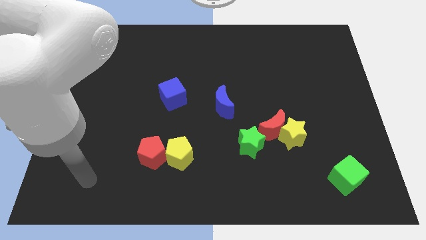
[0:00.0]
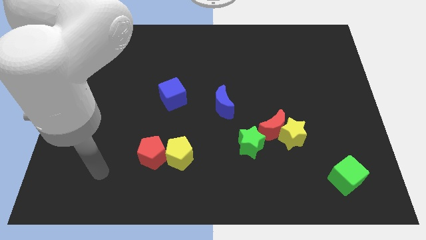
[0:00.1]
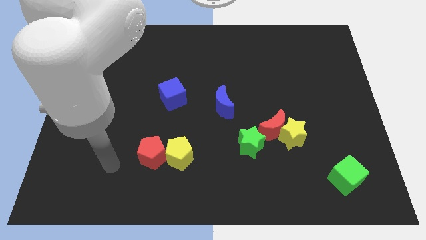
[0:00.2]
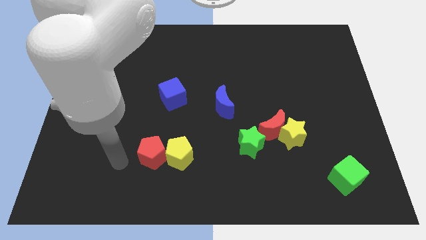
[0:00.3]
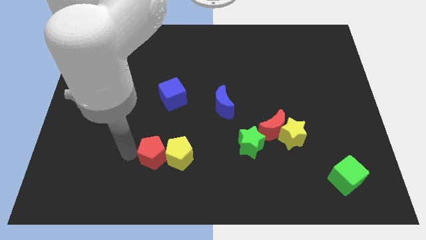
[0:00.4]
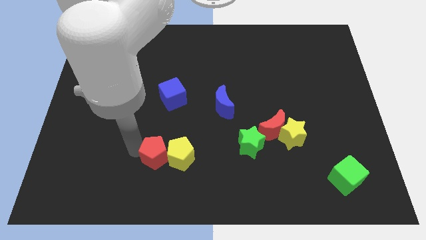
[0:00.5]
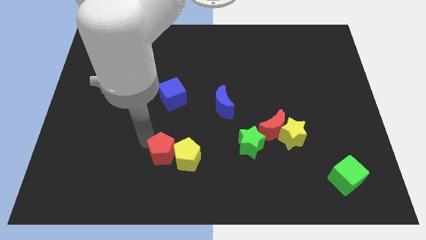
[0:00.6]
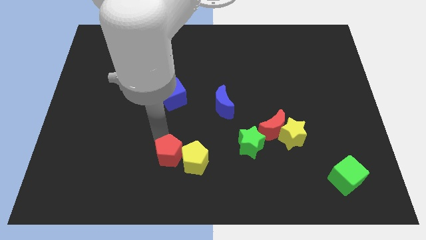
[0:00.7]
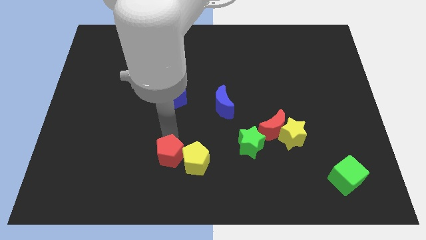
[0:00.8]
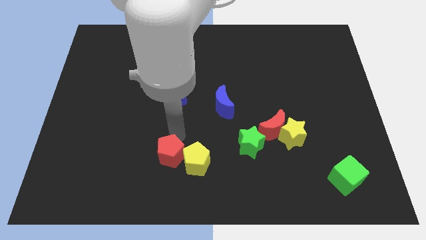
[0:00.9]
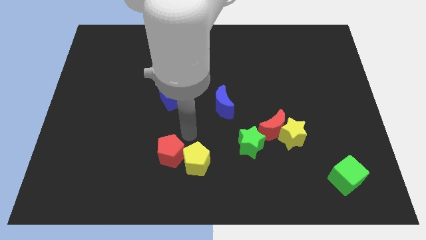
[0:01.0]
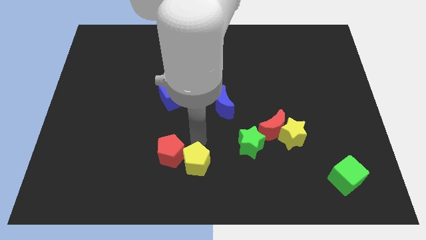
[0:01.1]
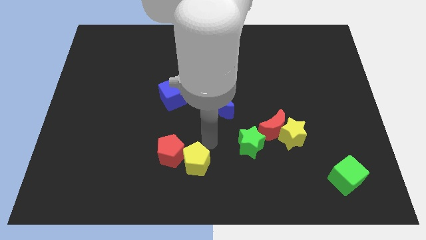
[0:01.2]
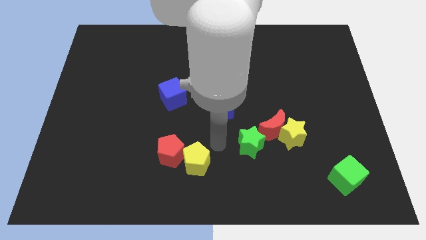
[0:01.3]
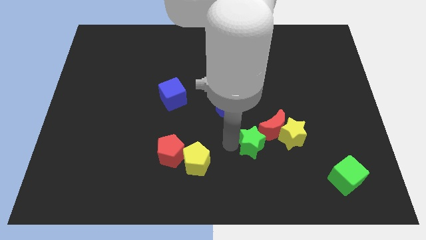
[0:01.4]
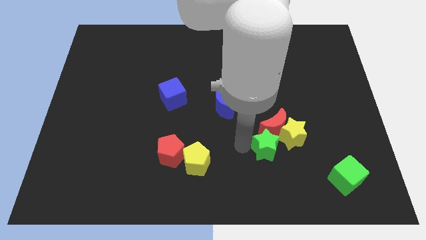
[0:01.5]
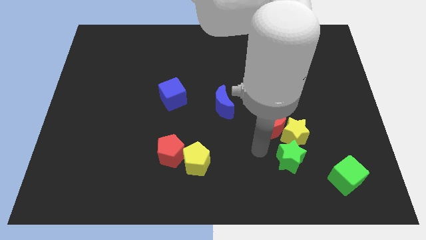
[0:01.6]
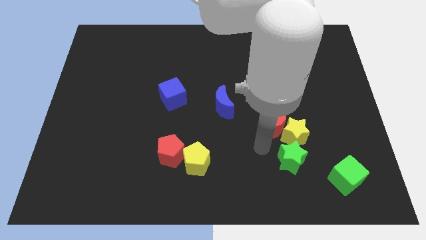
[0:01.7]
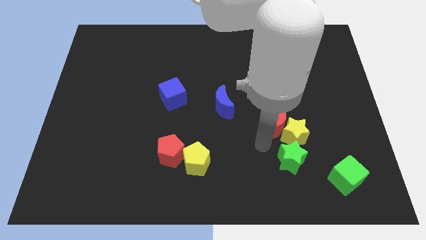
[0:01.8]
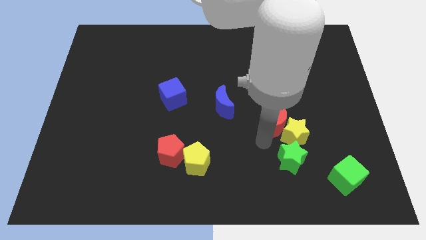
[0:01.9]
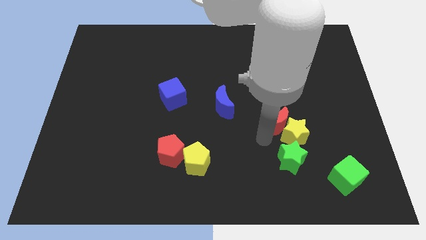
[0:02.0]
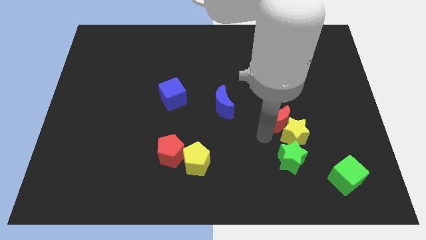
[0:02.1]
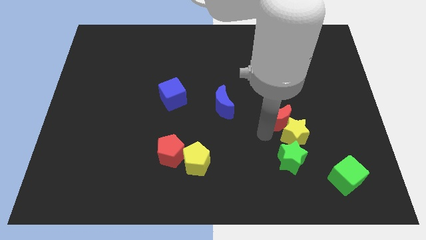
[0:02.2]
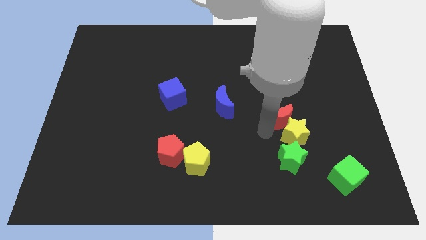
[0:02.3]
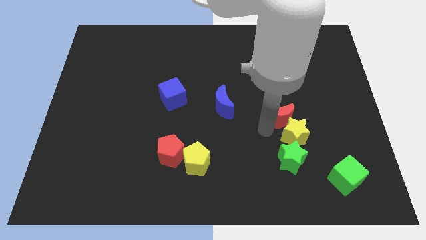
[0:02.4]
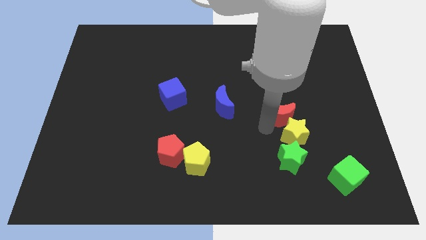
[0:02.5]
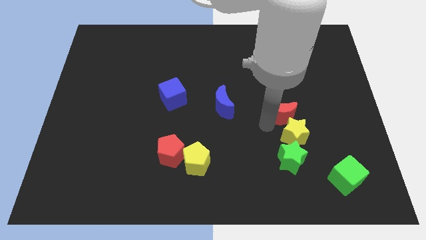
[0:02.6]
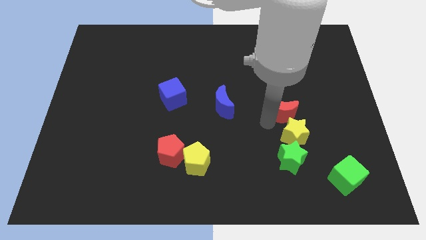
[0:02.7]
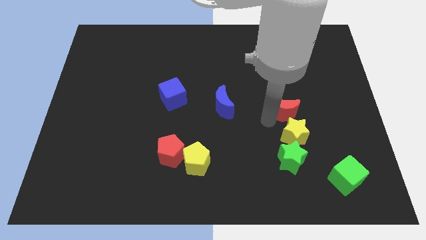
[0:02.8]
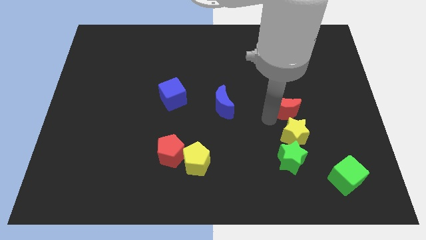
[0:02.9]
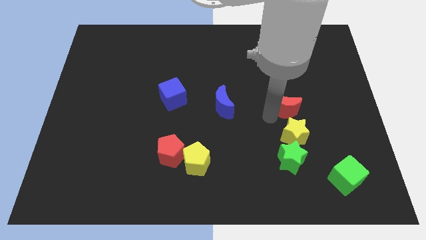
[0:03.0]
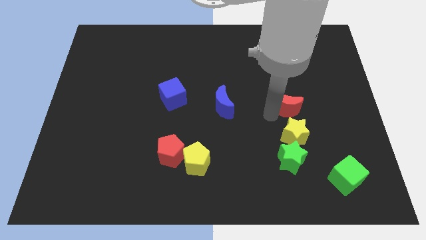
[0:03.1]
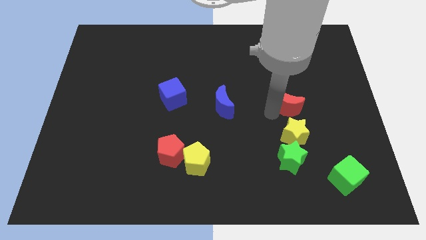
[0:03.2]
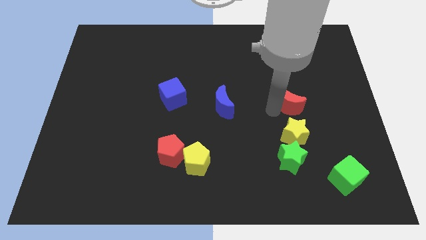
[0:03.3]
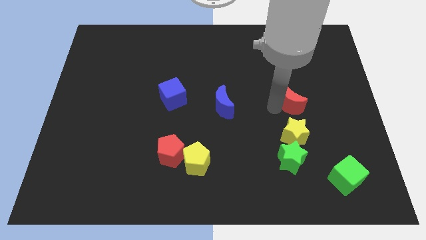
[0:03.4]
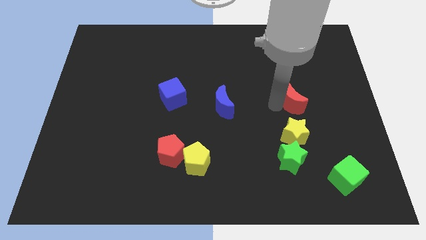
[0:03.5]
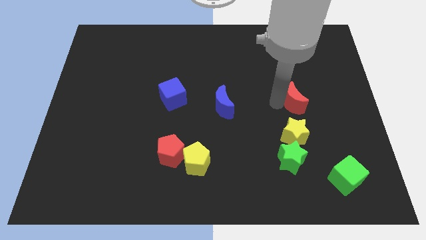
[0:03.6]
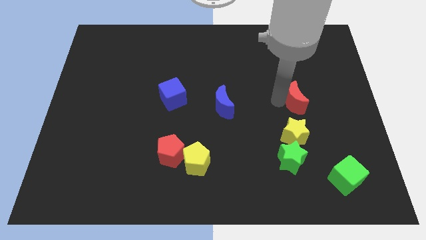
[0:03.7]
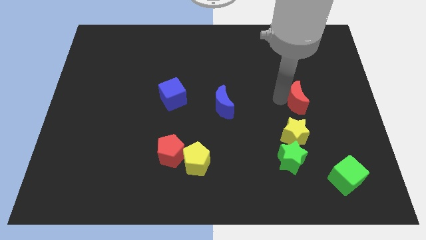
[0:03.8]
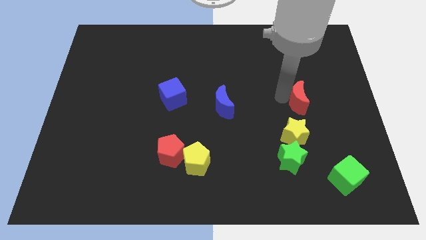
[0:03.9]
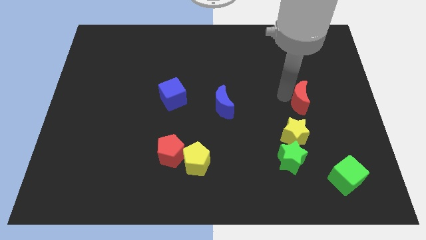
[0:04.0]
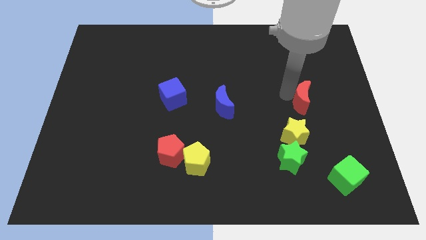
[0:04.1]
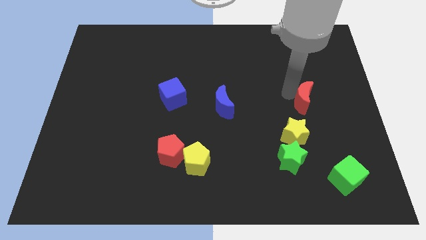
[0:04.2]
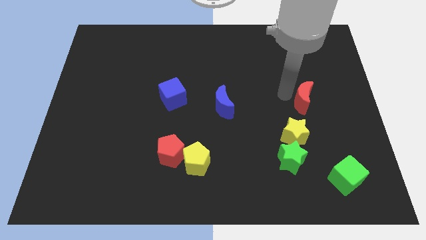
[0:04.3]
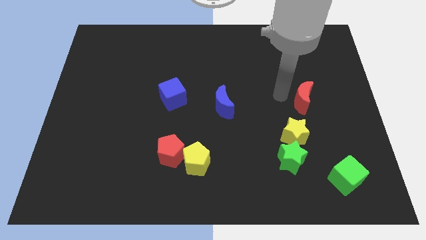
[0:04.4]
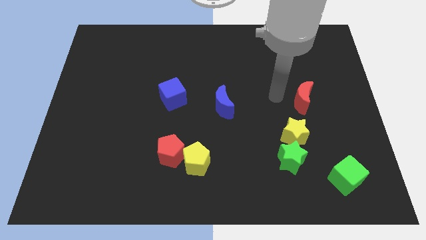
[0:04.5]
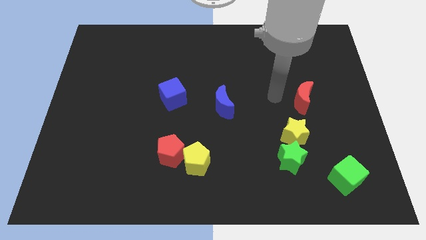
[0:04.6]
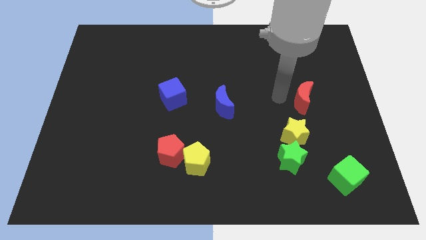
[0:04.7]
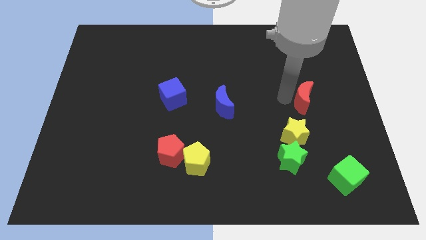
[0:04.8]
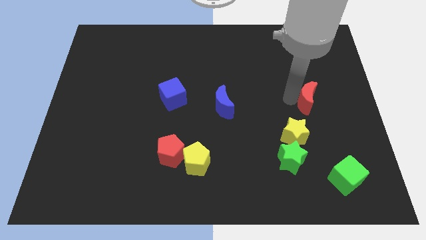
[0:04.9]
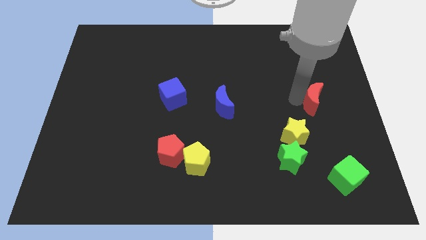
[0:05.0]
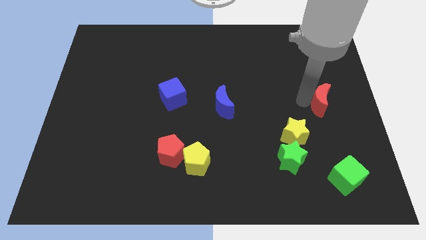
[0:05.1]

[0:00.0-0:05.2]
push the red moon to the right side of the board

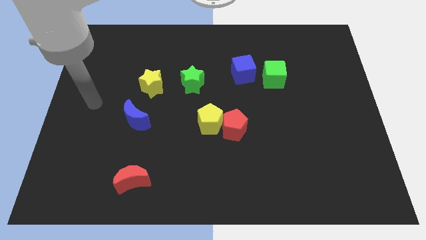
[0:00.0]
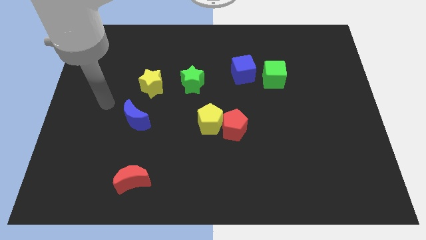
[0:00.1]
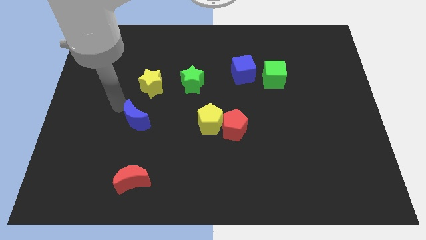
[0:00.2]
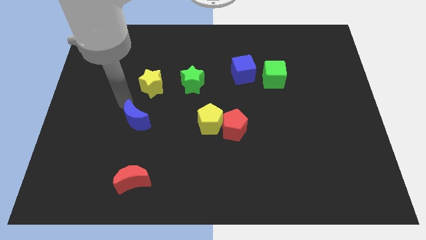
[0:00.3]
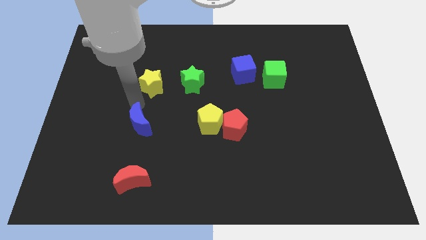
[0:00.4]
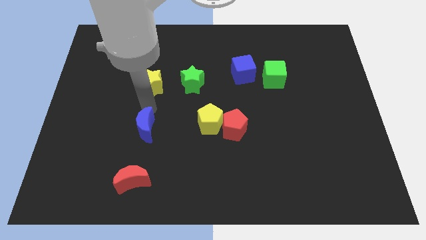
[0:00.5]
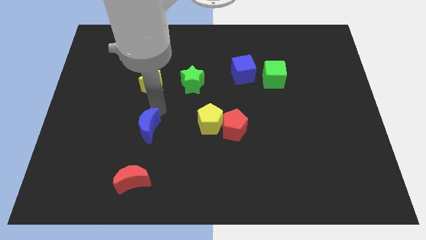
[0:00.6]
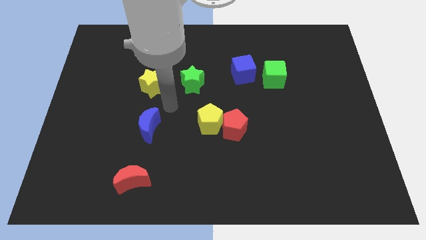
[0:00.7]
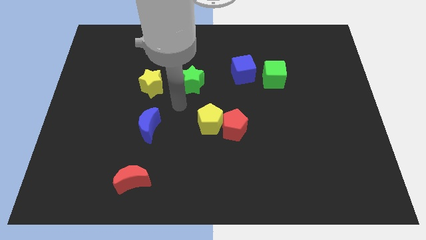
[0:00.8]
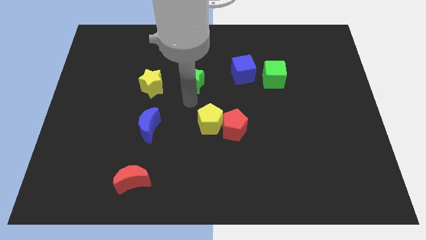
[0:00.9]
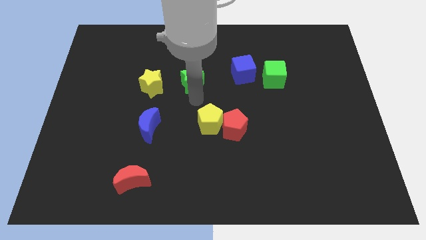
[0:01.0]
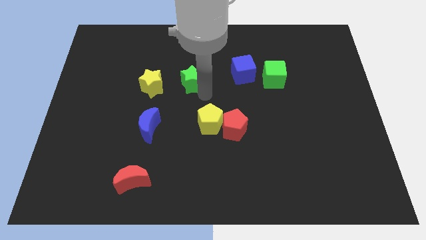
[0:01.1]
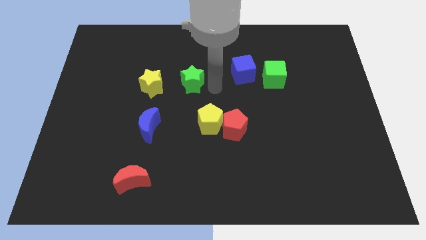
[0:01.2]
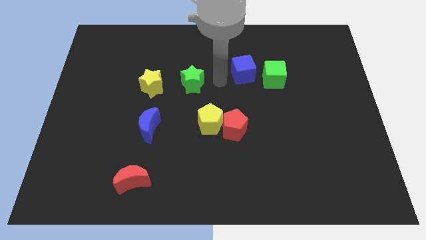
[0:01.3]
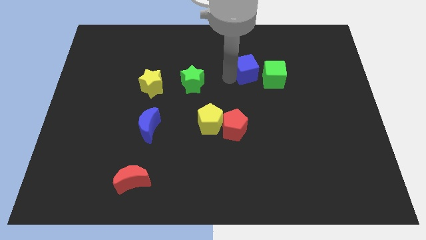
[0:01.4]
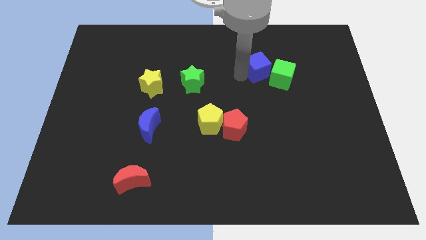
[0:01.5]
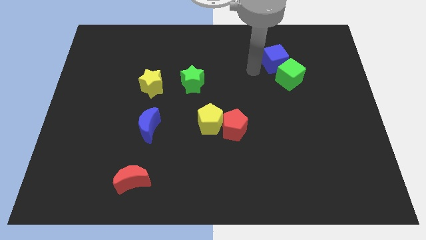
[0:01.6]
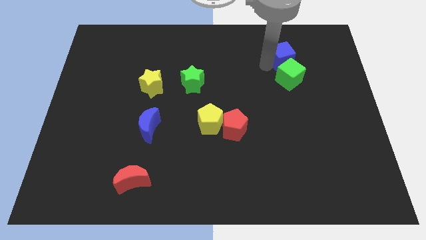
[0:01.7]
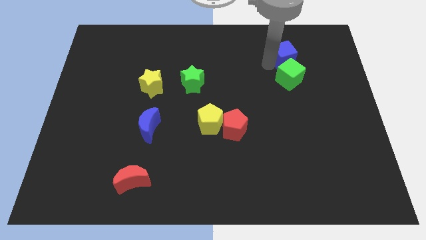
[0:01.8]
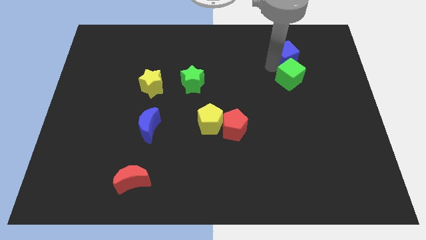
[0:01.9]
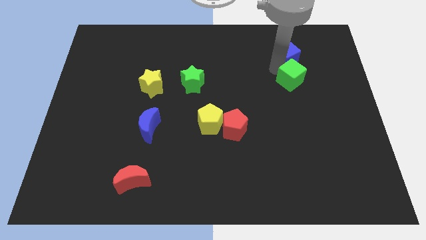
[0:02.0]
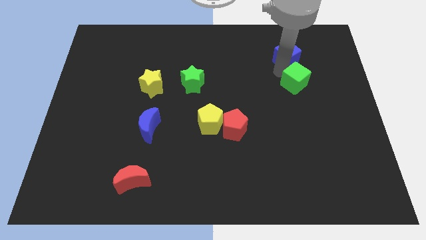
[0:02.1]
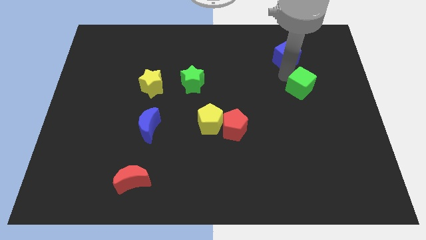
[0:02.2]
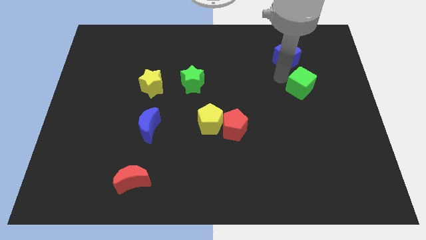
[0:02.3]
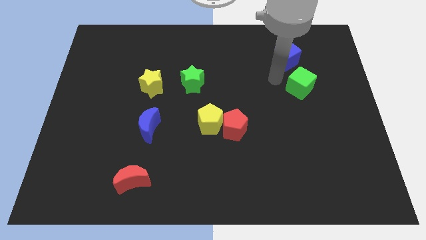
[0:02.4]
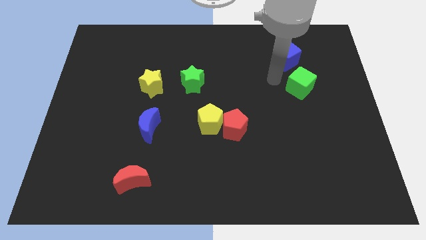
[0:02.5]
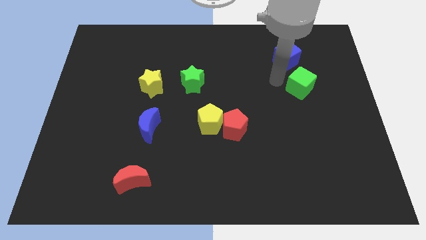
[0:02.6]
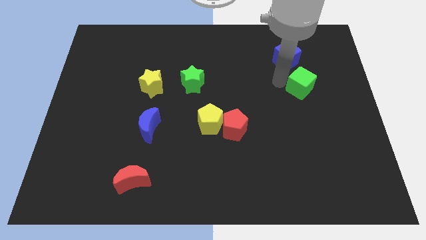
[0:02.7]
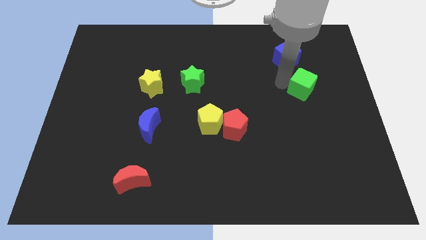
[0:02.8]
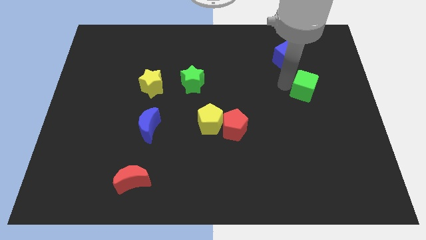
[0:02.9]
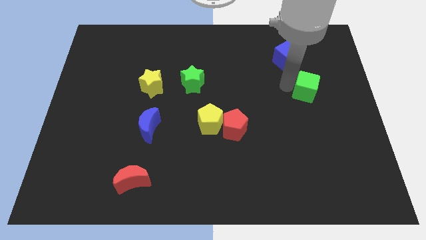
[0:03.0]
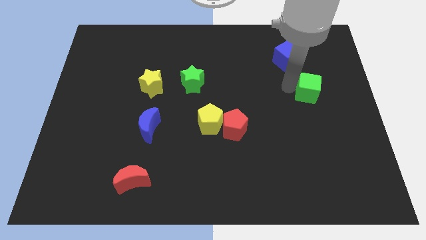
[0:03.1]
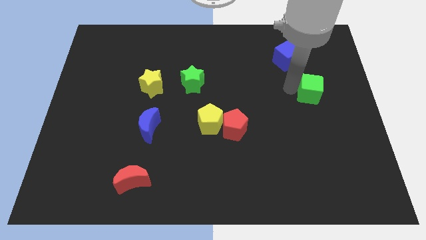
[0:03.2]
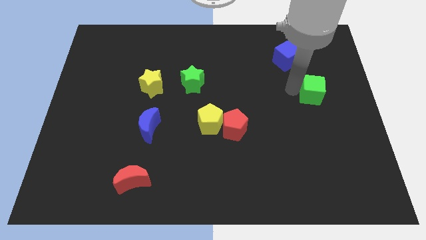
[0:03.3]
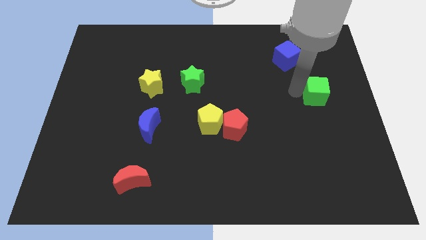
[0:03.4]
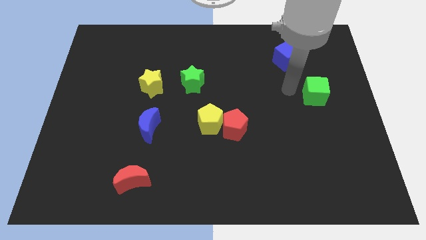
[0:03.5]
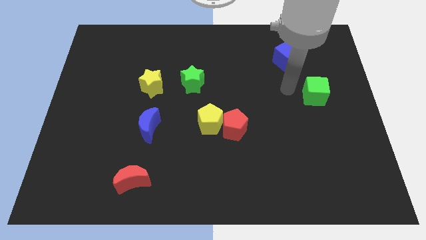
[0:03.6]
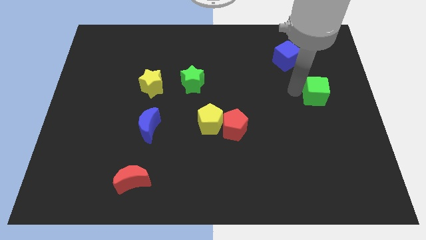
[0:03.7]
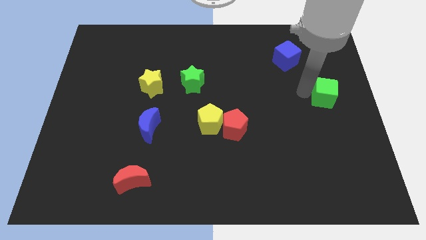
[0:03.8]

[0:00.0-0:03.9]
push the green cube to the center right
